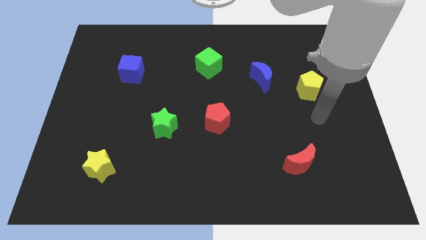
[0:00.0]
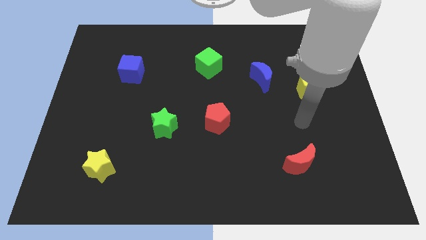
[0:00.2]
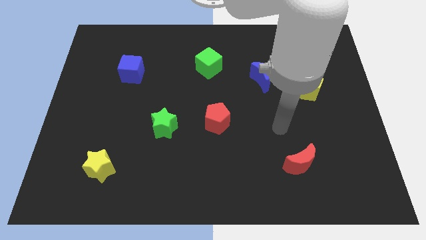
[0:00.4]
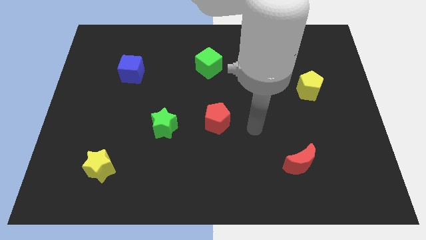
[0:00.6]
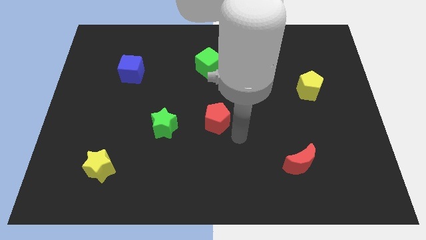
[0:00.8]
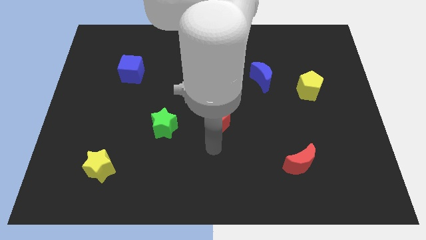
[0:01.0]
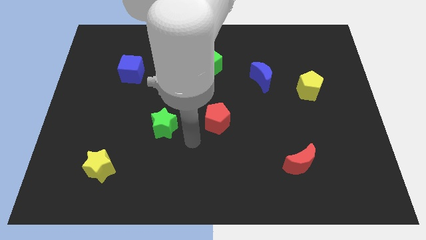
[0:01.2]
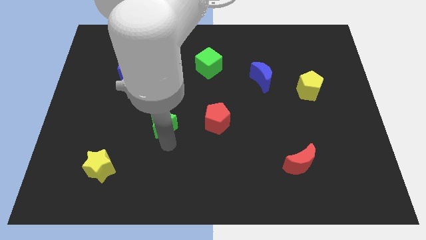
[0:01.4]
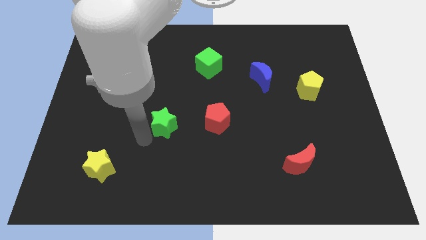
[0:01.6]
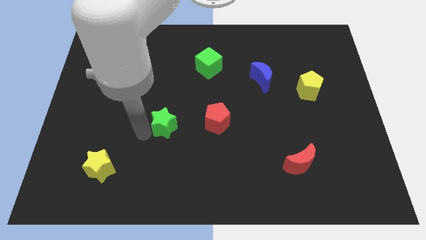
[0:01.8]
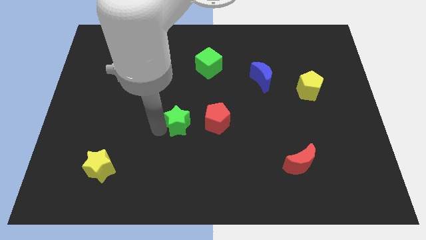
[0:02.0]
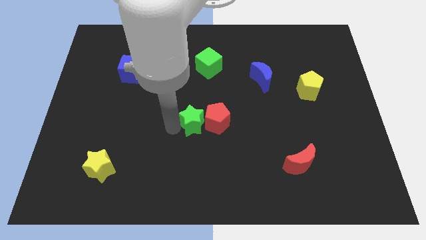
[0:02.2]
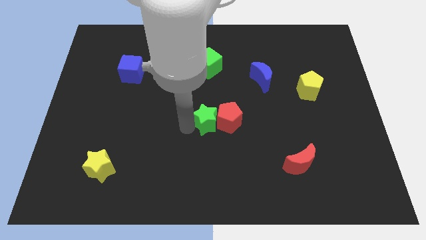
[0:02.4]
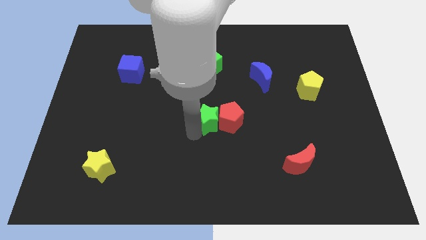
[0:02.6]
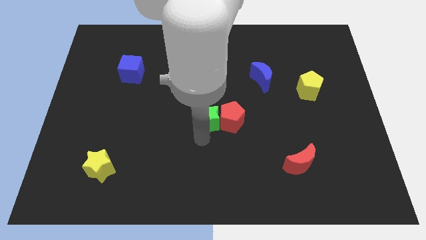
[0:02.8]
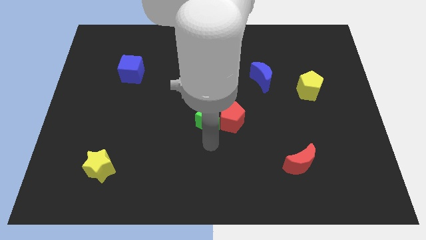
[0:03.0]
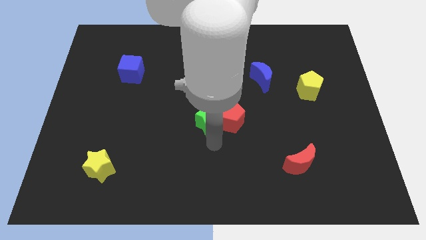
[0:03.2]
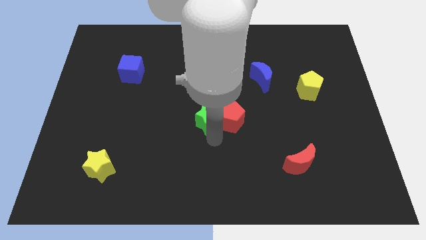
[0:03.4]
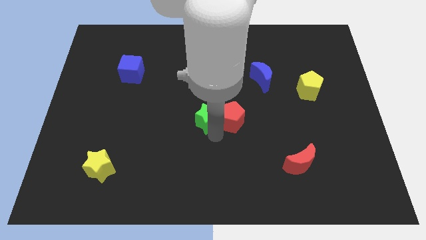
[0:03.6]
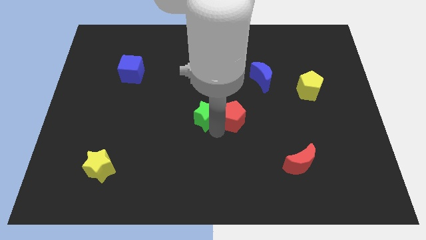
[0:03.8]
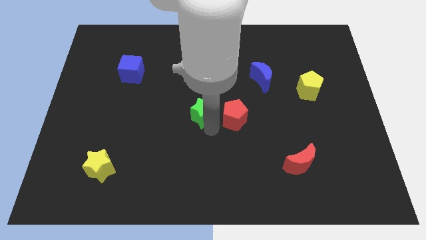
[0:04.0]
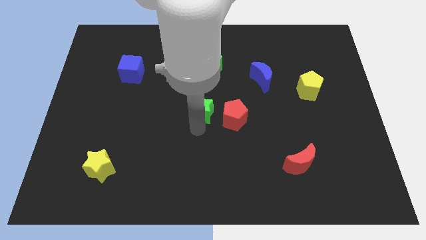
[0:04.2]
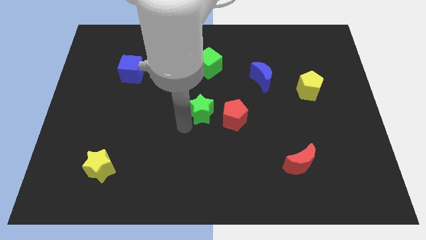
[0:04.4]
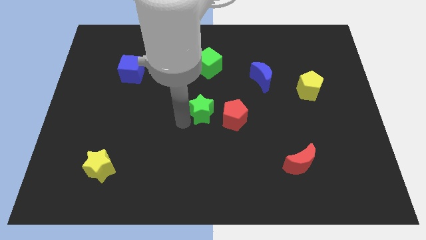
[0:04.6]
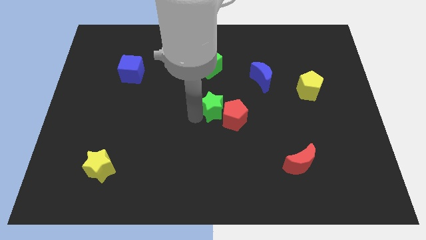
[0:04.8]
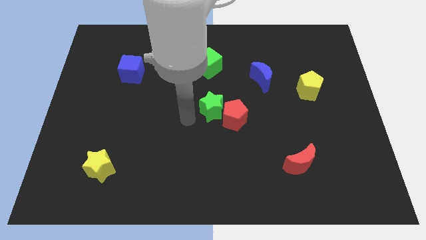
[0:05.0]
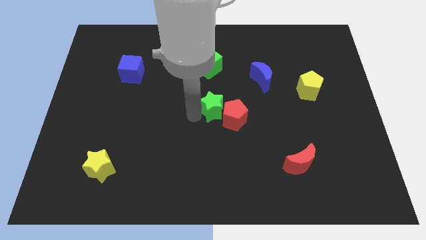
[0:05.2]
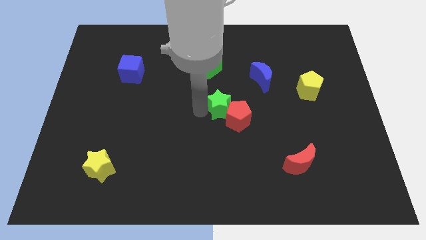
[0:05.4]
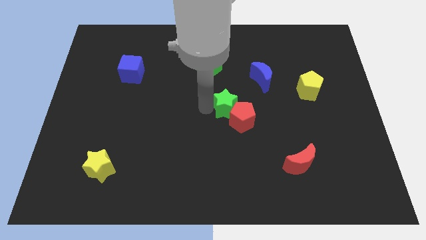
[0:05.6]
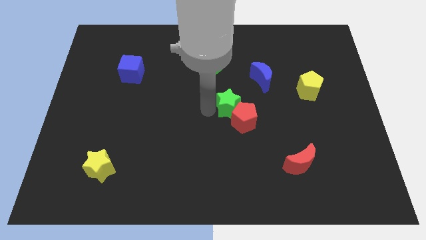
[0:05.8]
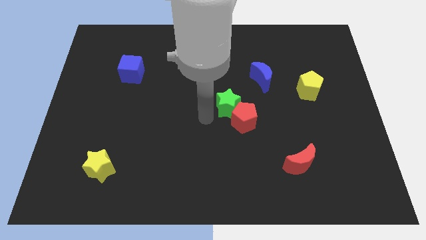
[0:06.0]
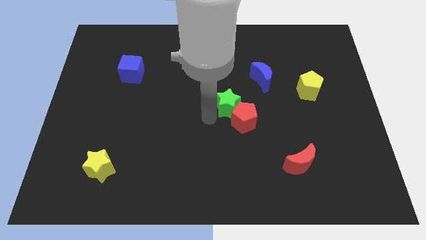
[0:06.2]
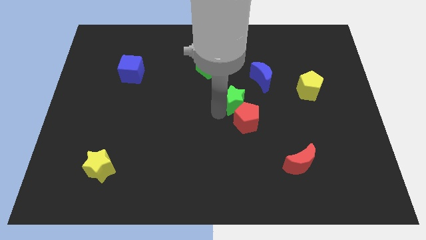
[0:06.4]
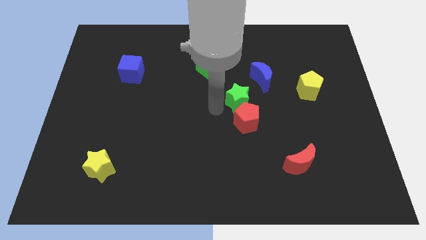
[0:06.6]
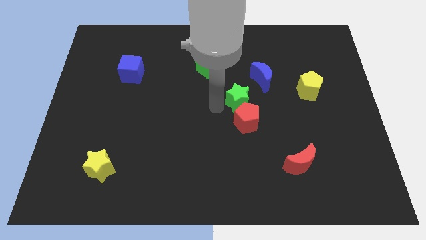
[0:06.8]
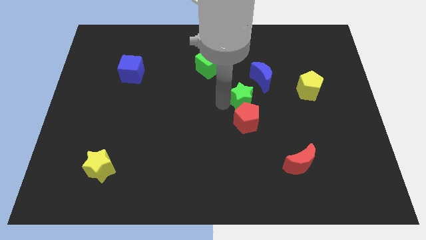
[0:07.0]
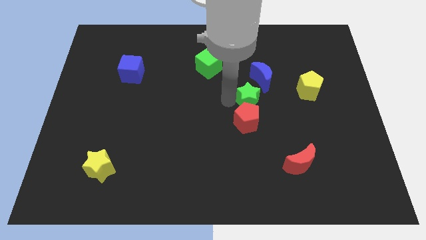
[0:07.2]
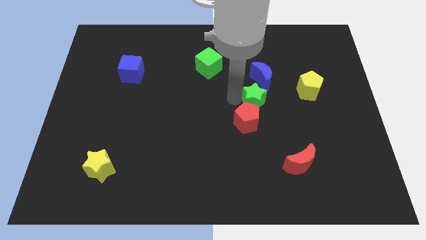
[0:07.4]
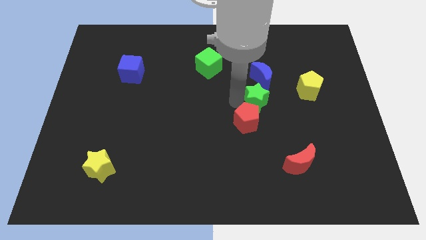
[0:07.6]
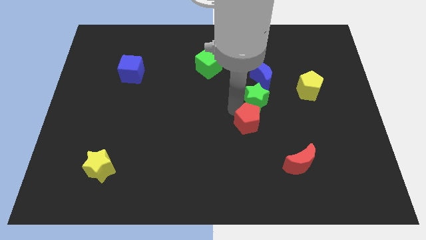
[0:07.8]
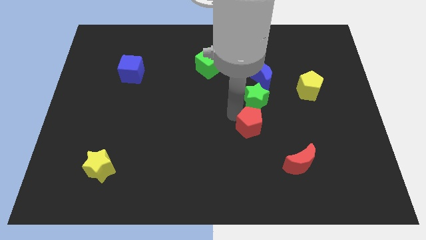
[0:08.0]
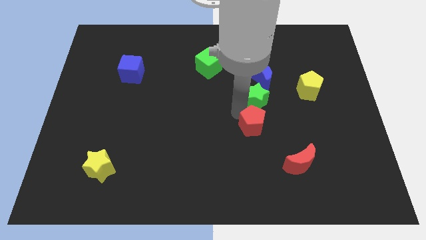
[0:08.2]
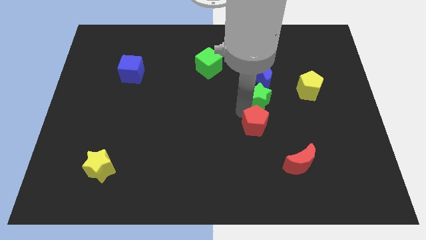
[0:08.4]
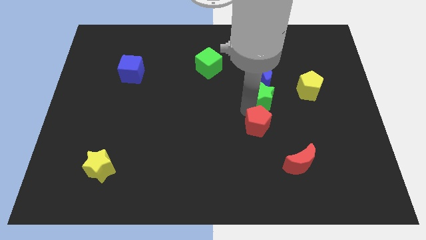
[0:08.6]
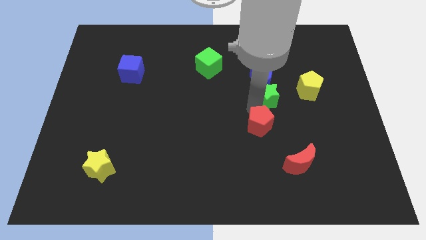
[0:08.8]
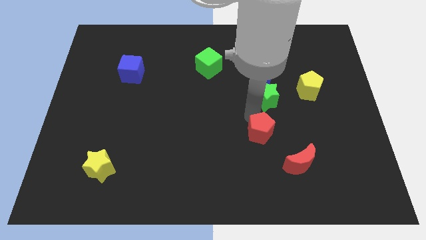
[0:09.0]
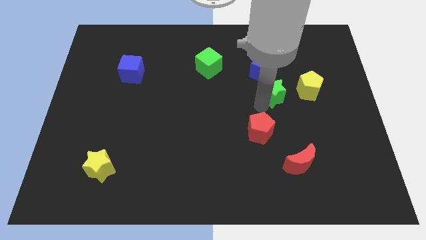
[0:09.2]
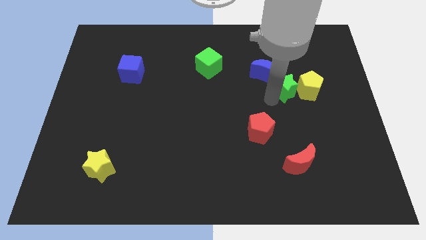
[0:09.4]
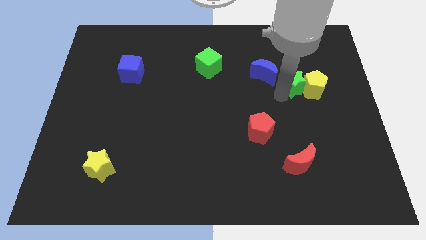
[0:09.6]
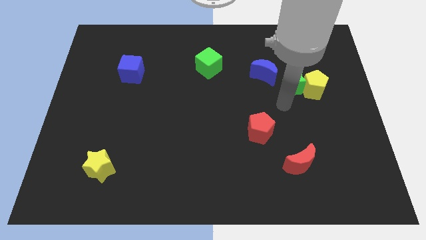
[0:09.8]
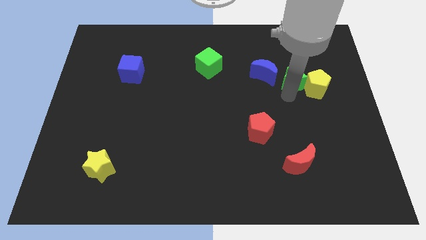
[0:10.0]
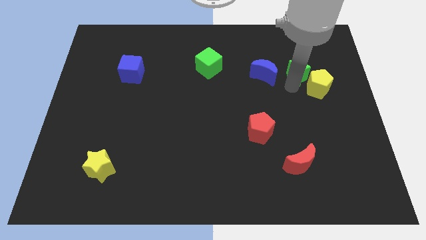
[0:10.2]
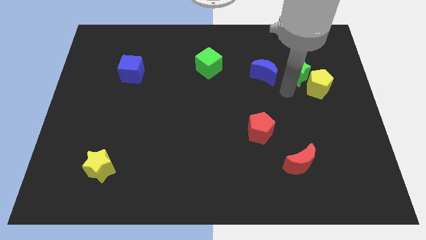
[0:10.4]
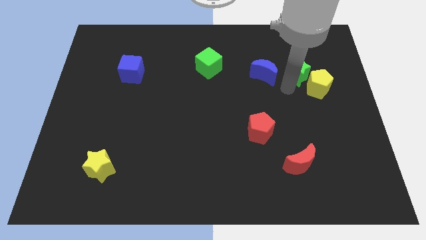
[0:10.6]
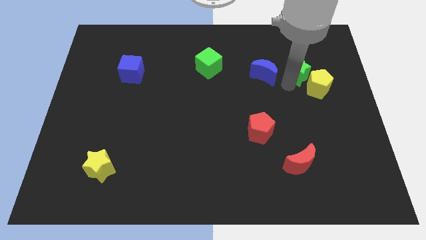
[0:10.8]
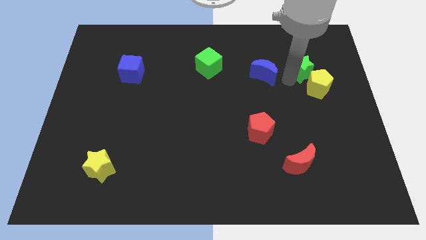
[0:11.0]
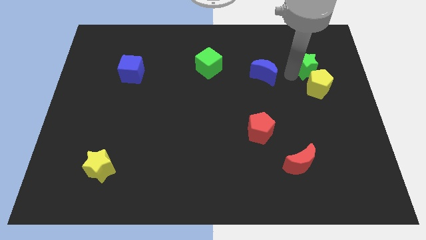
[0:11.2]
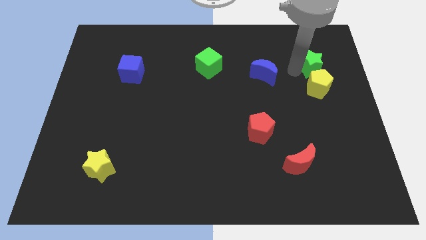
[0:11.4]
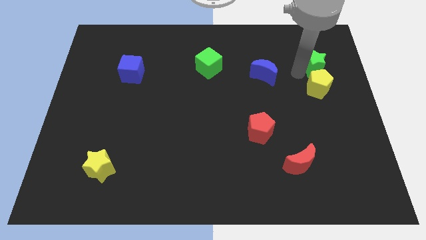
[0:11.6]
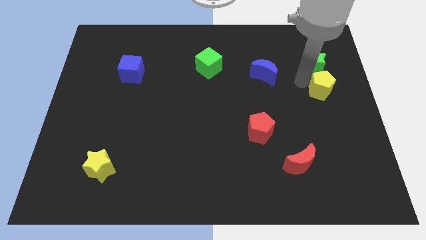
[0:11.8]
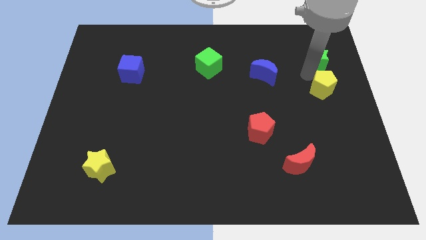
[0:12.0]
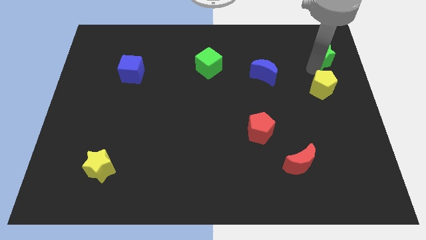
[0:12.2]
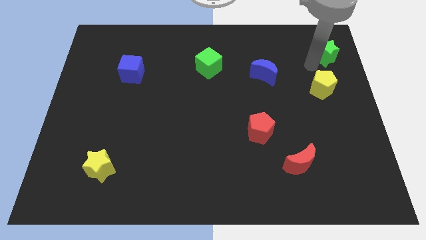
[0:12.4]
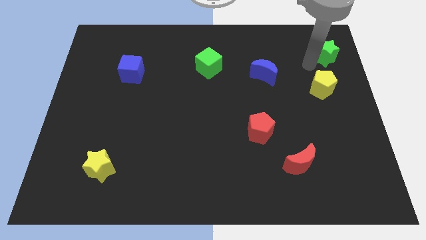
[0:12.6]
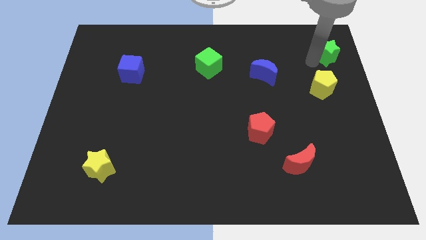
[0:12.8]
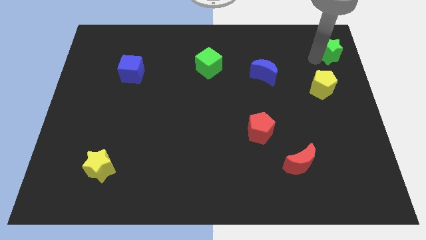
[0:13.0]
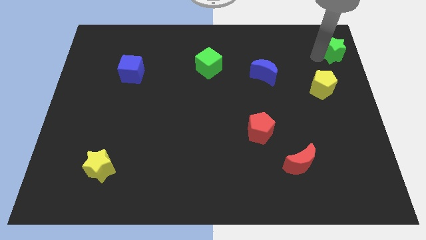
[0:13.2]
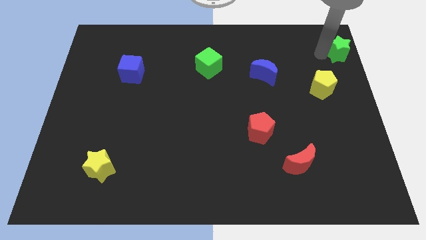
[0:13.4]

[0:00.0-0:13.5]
move the green star to the upper right corner
